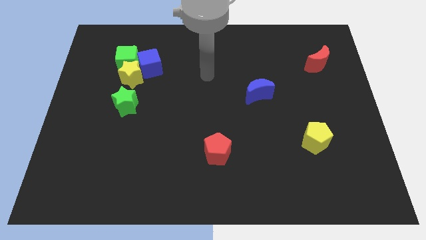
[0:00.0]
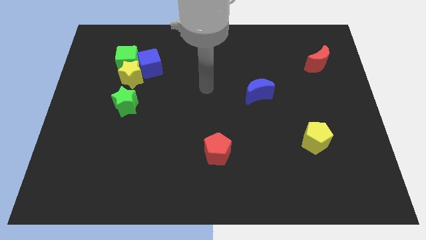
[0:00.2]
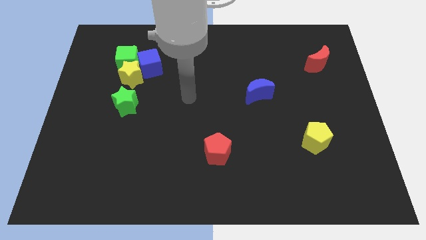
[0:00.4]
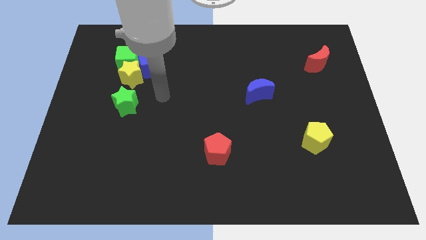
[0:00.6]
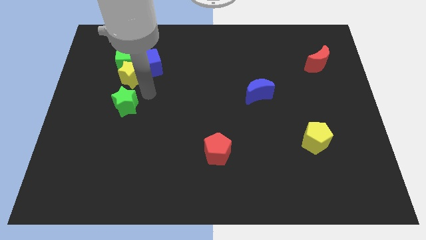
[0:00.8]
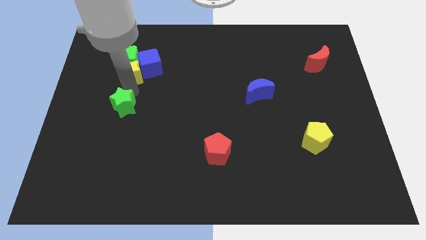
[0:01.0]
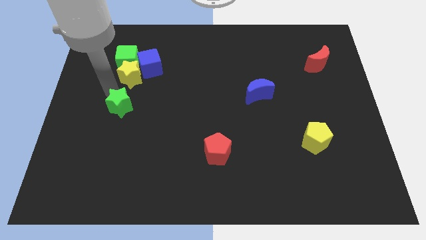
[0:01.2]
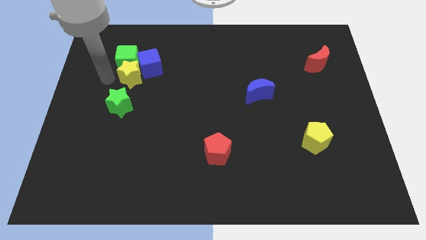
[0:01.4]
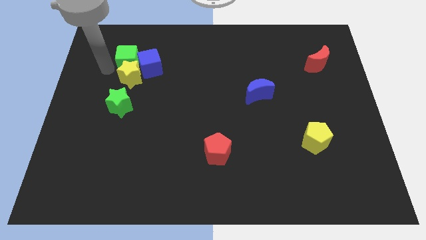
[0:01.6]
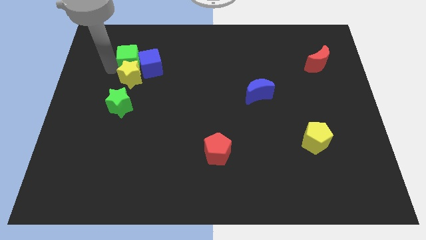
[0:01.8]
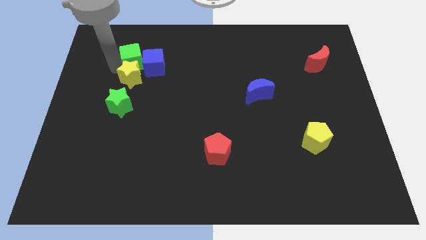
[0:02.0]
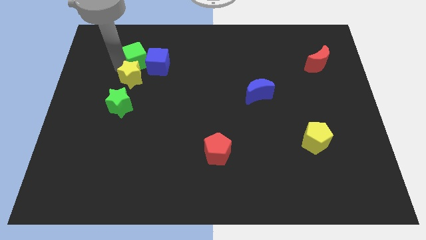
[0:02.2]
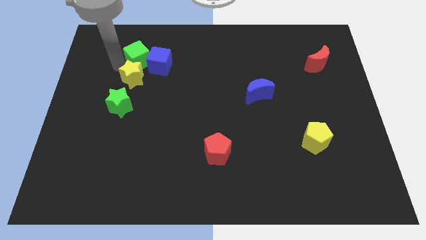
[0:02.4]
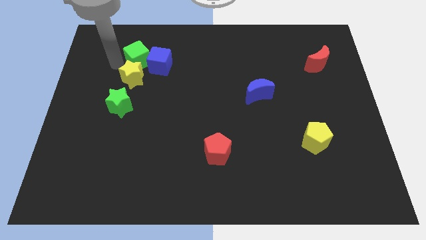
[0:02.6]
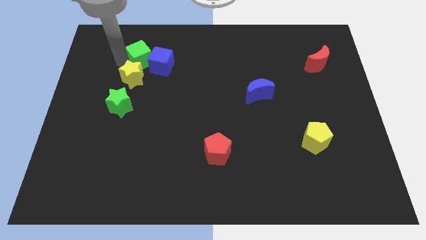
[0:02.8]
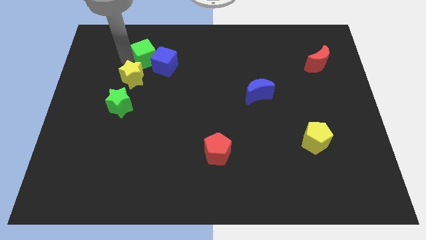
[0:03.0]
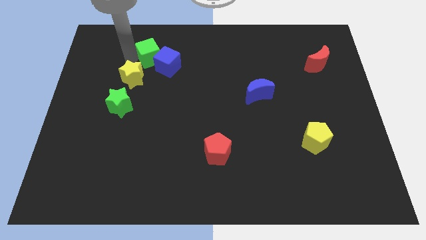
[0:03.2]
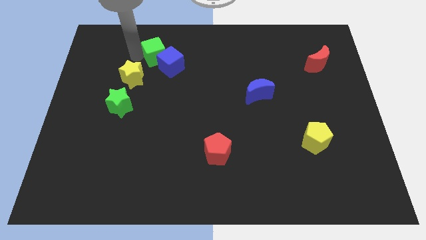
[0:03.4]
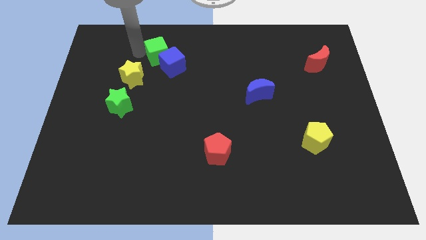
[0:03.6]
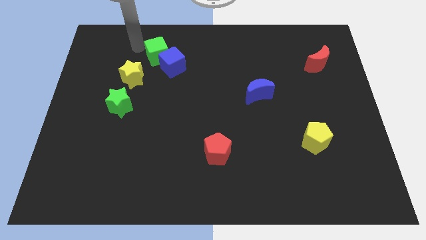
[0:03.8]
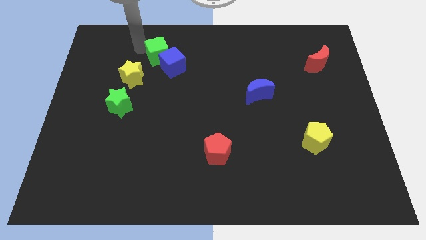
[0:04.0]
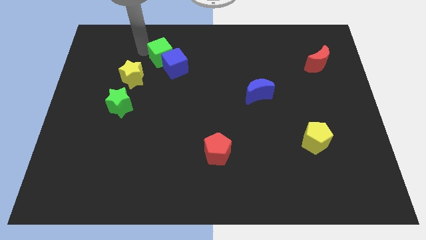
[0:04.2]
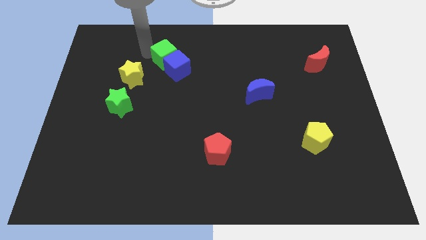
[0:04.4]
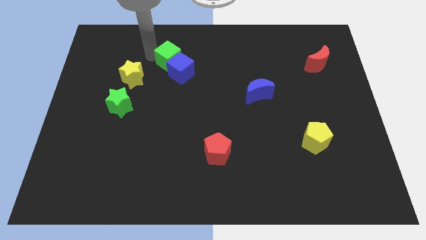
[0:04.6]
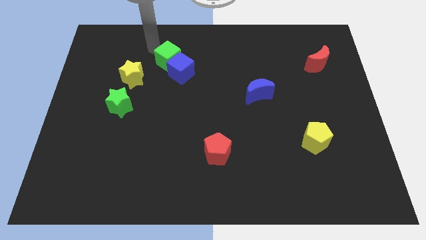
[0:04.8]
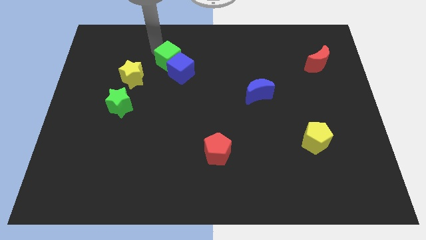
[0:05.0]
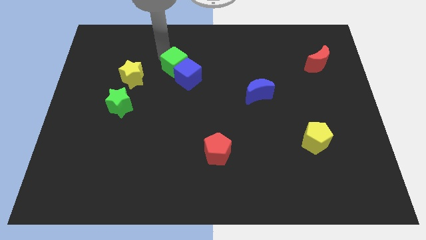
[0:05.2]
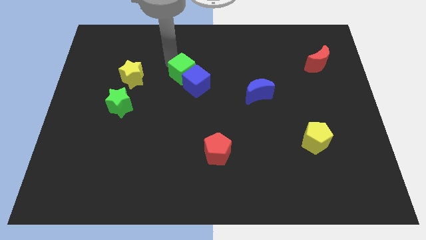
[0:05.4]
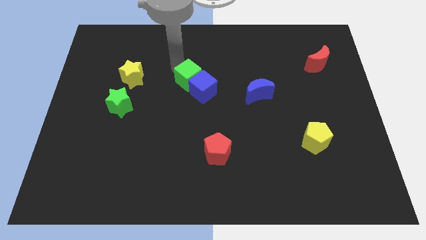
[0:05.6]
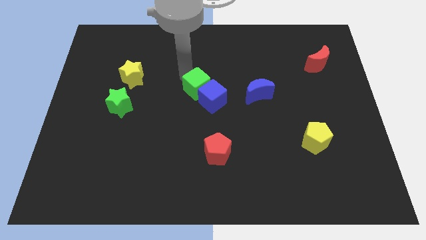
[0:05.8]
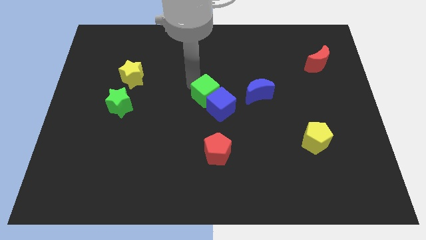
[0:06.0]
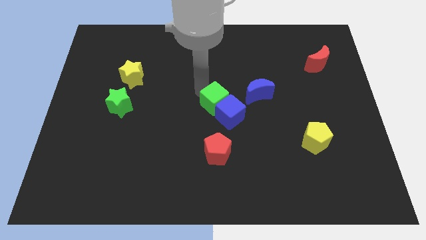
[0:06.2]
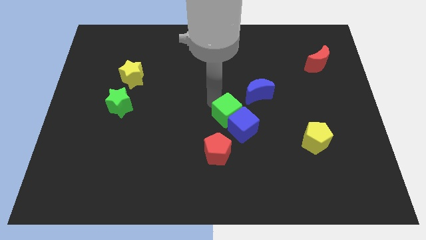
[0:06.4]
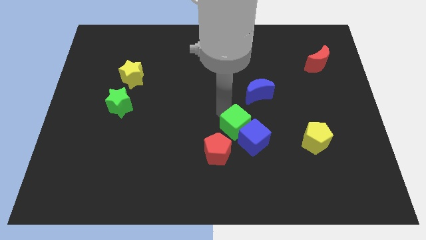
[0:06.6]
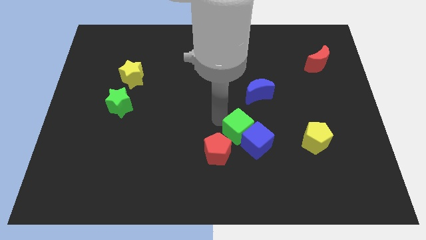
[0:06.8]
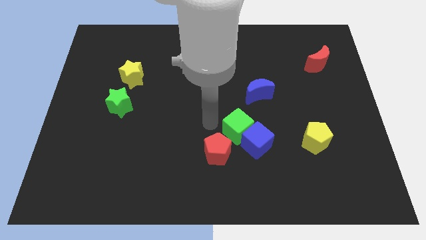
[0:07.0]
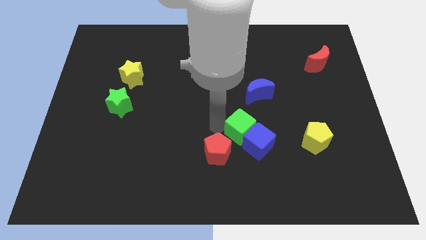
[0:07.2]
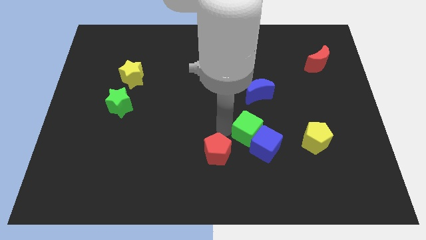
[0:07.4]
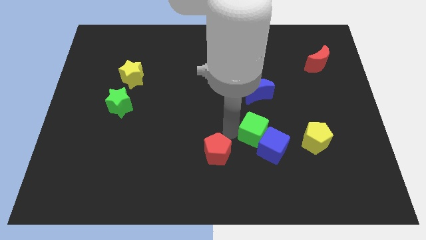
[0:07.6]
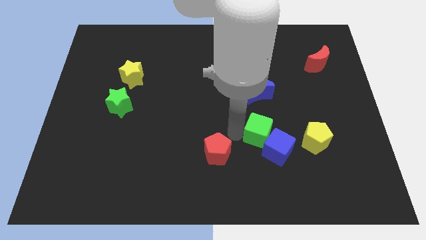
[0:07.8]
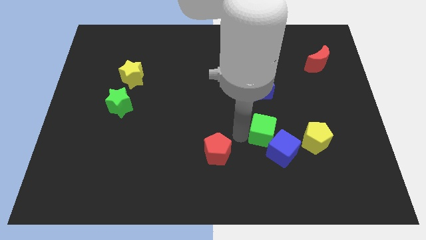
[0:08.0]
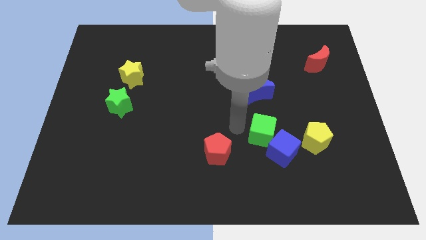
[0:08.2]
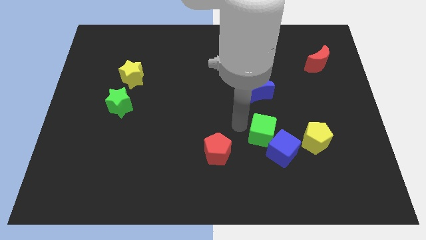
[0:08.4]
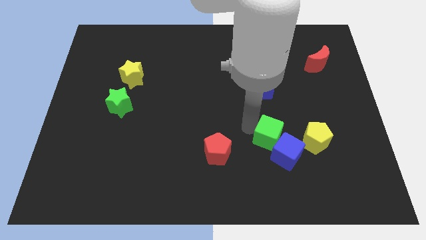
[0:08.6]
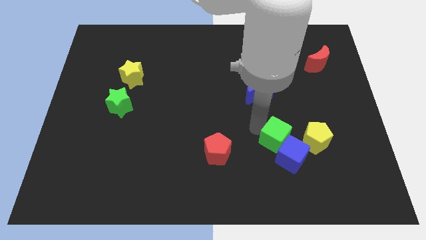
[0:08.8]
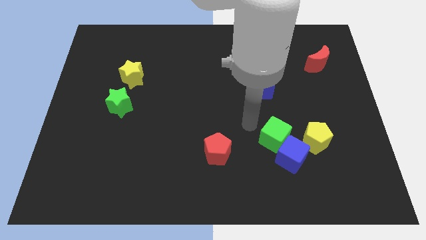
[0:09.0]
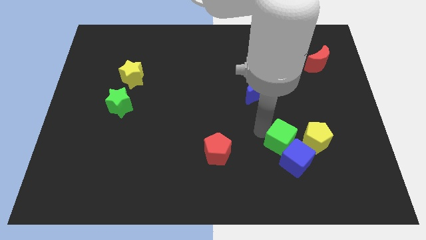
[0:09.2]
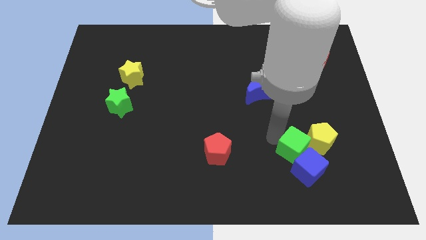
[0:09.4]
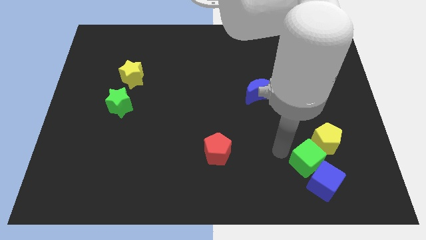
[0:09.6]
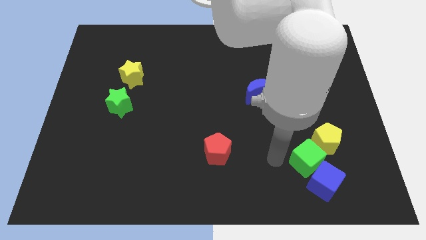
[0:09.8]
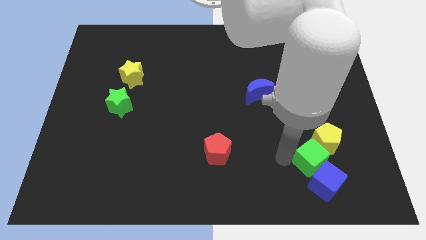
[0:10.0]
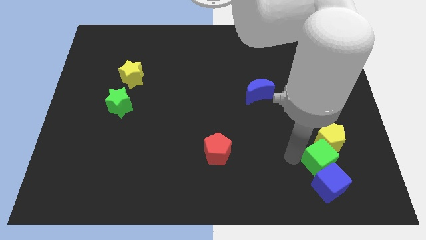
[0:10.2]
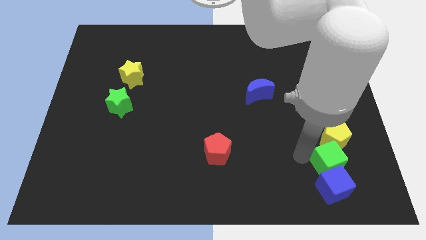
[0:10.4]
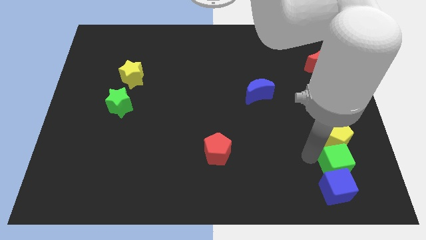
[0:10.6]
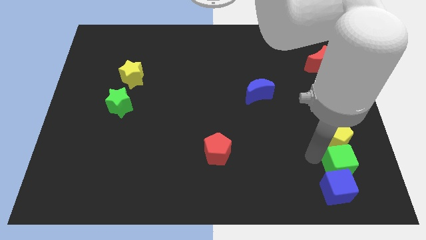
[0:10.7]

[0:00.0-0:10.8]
put the green cube to the bottom right side of the yellow pentagon

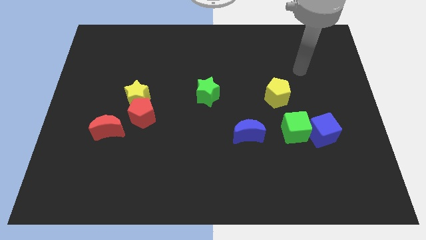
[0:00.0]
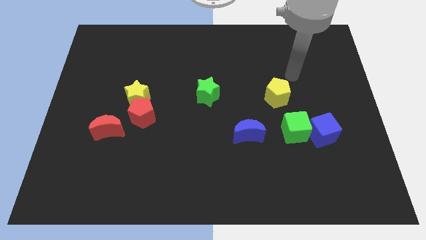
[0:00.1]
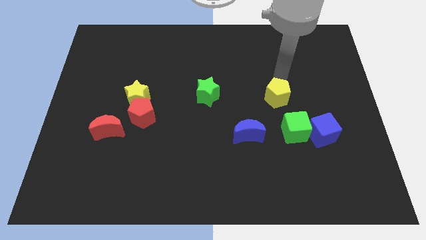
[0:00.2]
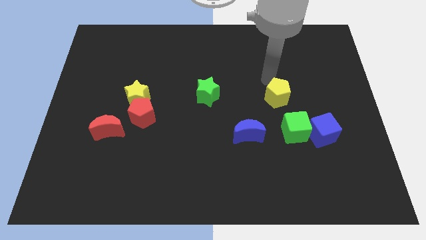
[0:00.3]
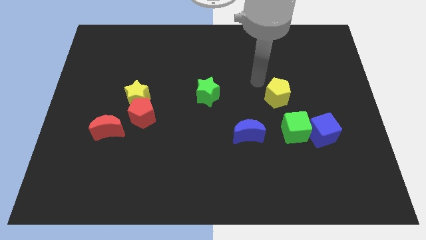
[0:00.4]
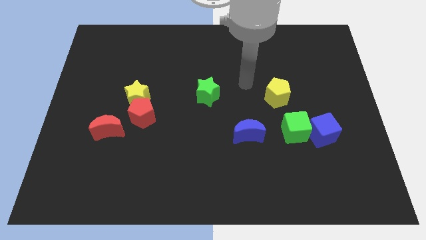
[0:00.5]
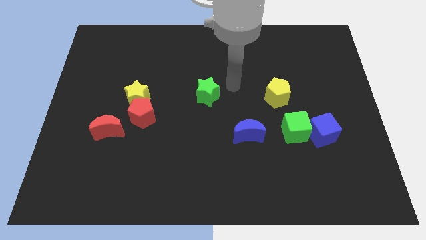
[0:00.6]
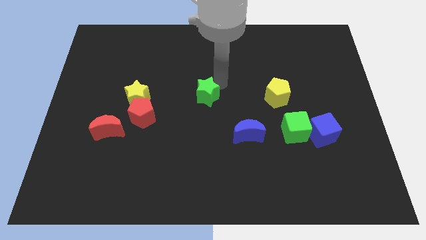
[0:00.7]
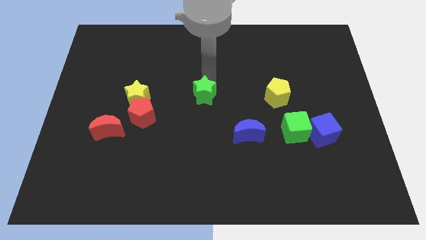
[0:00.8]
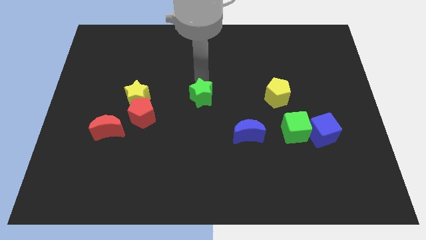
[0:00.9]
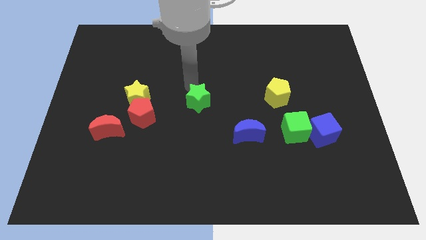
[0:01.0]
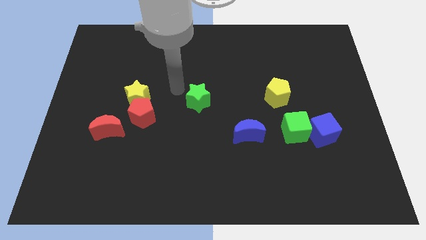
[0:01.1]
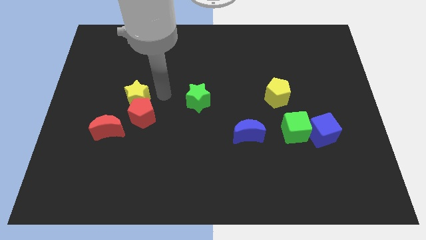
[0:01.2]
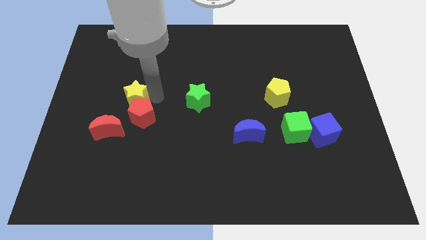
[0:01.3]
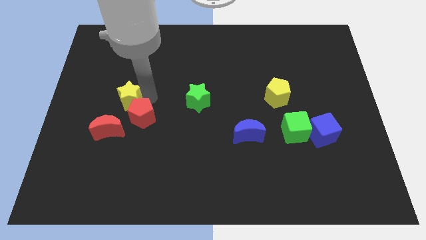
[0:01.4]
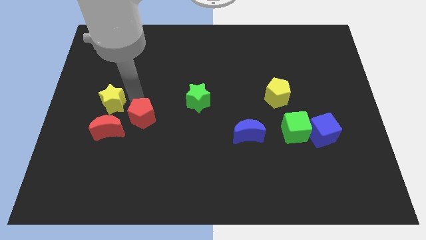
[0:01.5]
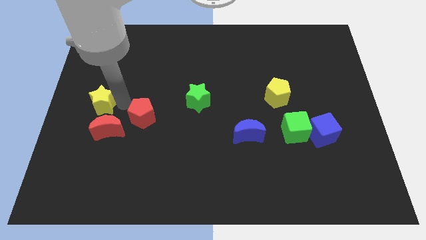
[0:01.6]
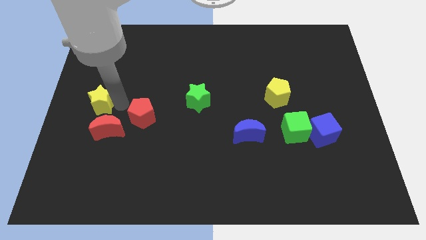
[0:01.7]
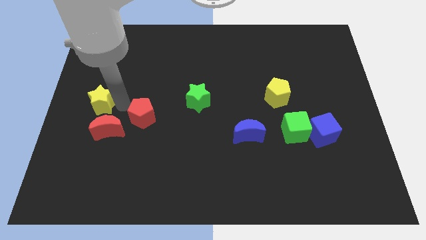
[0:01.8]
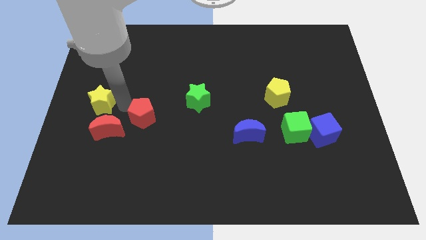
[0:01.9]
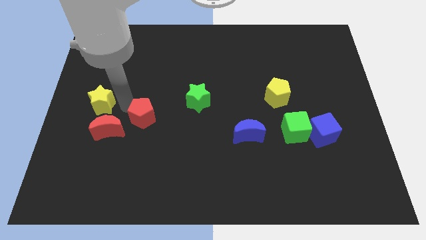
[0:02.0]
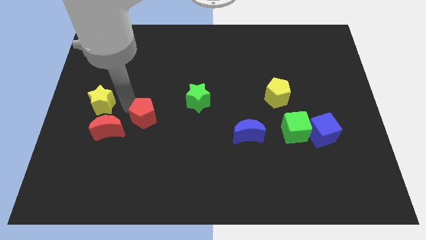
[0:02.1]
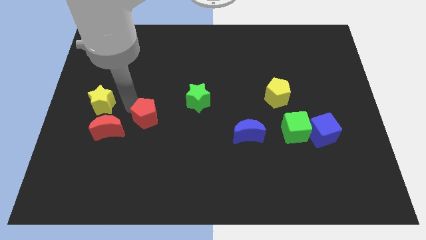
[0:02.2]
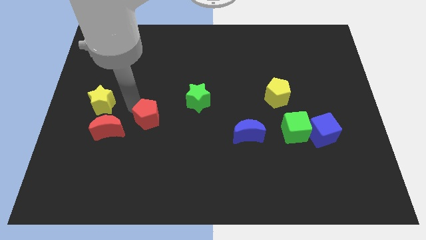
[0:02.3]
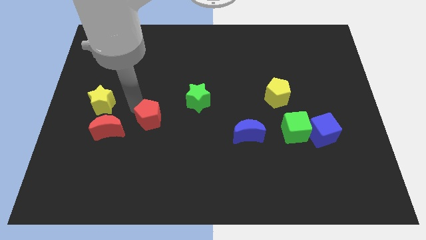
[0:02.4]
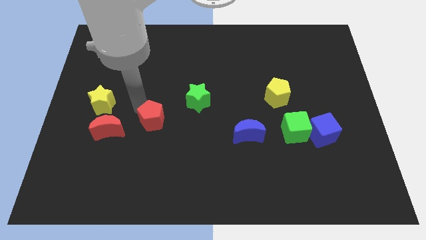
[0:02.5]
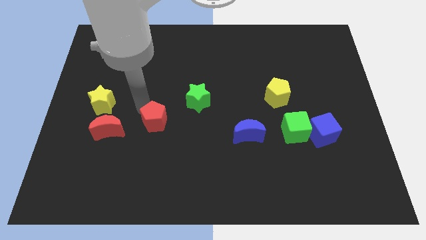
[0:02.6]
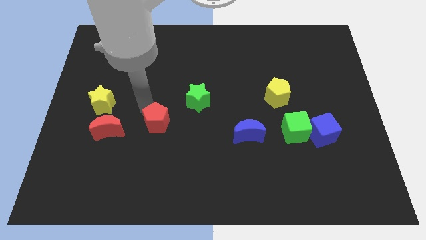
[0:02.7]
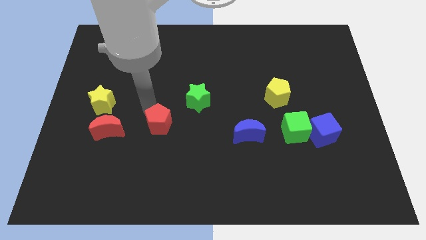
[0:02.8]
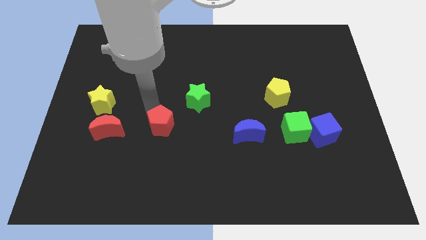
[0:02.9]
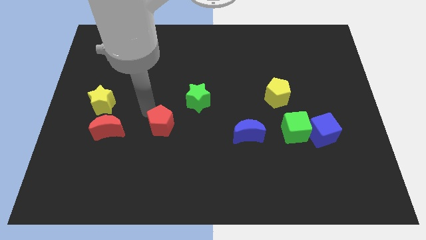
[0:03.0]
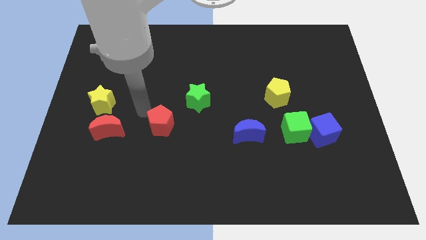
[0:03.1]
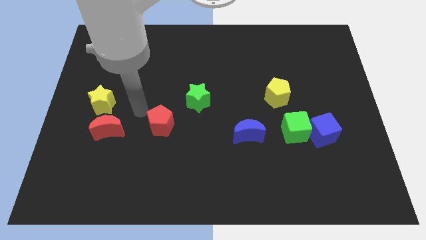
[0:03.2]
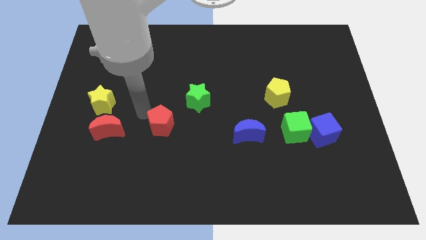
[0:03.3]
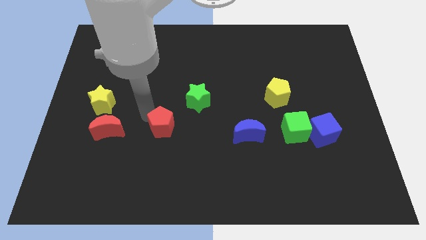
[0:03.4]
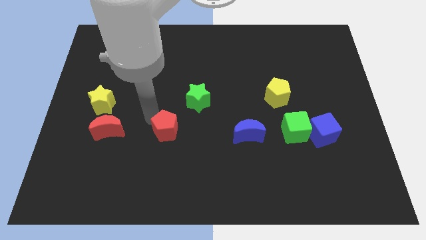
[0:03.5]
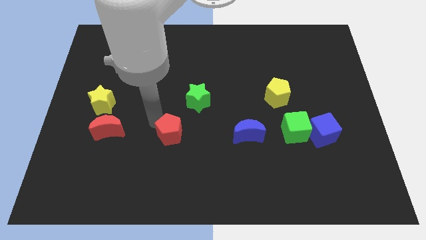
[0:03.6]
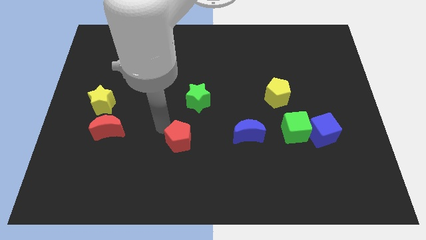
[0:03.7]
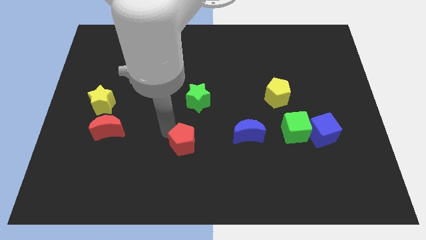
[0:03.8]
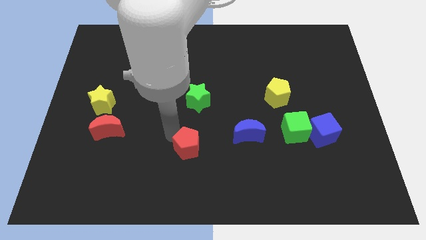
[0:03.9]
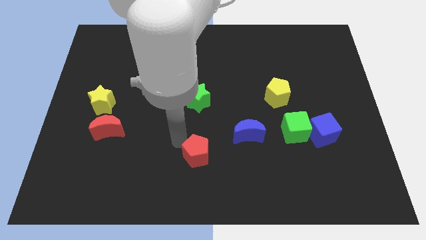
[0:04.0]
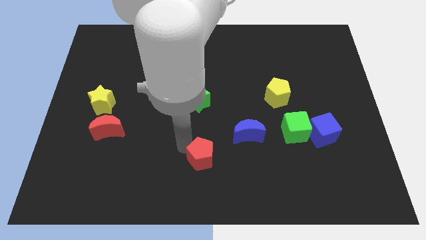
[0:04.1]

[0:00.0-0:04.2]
push the red pentagon to the bottom left side of the blue moon
